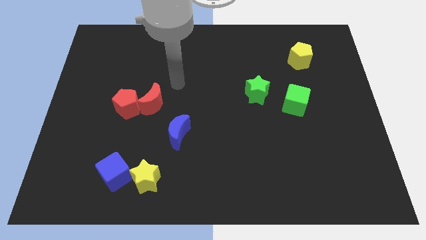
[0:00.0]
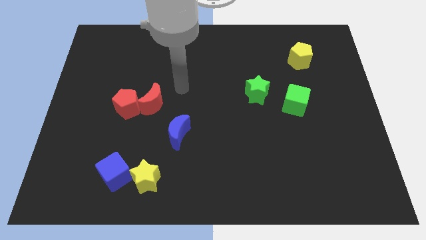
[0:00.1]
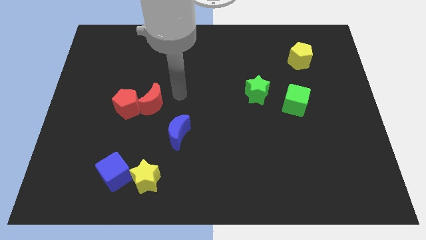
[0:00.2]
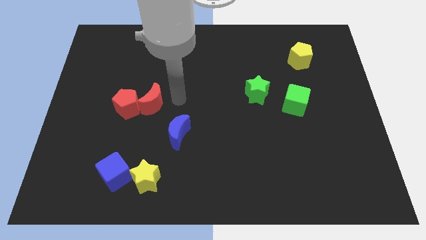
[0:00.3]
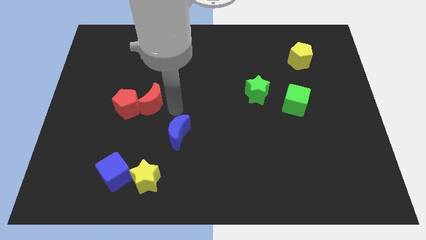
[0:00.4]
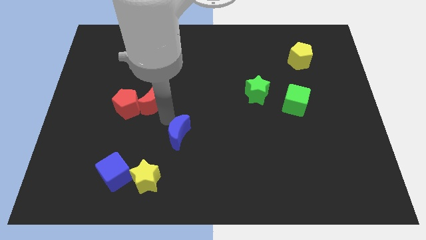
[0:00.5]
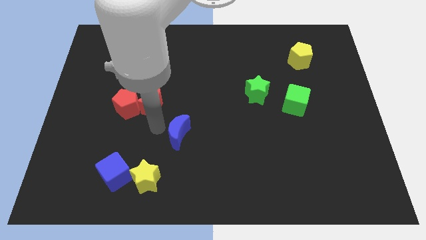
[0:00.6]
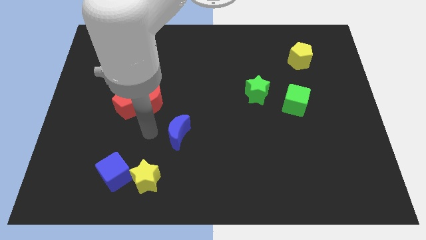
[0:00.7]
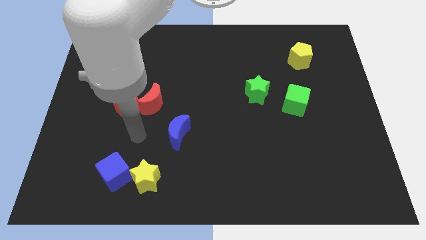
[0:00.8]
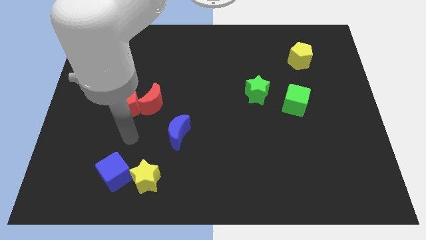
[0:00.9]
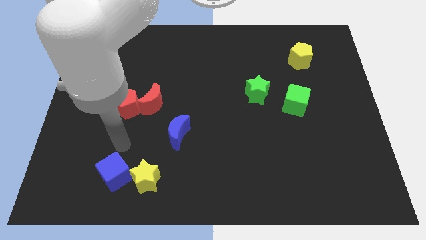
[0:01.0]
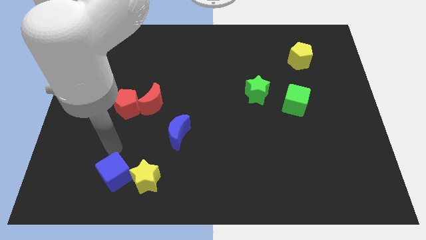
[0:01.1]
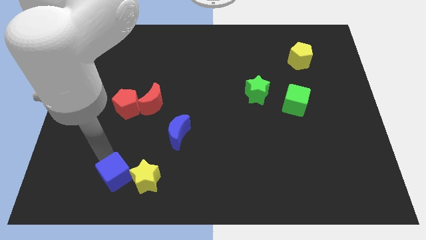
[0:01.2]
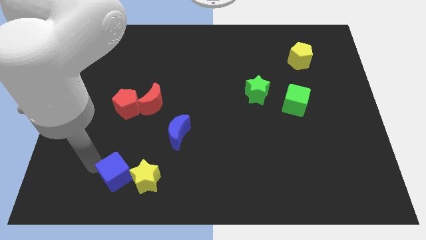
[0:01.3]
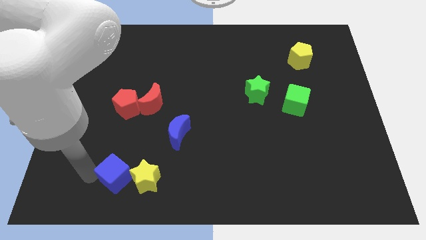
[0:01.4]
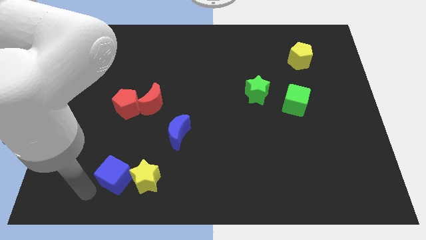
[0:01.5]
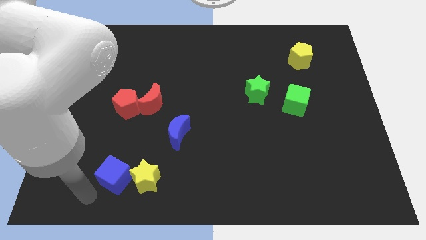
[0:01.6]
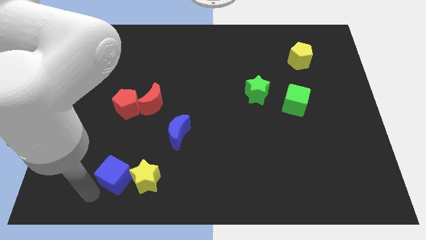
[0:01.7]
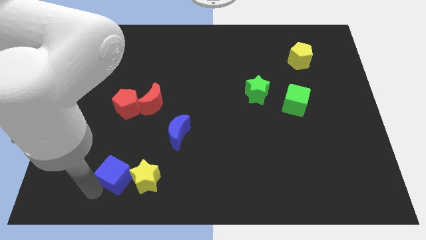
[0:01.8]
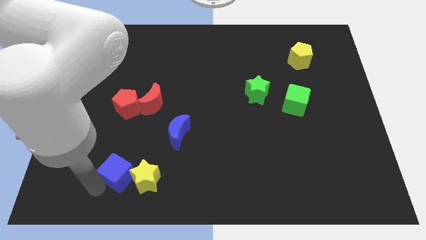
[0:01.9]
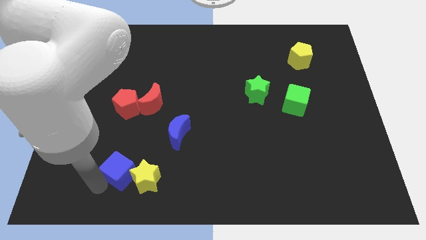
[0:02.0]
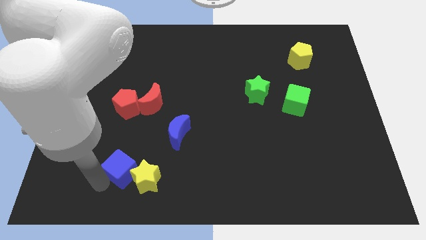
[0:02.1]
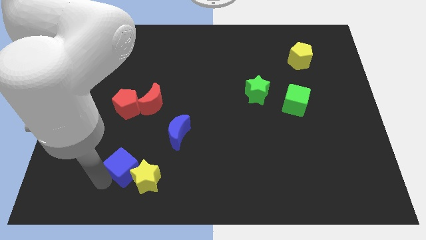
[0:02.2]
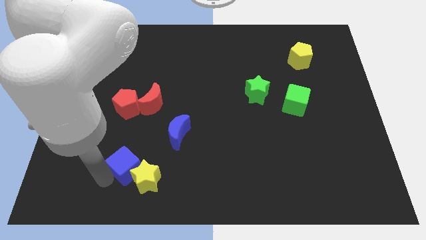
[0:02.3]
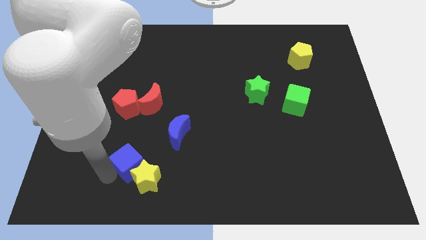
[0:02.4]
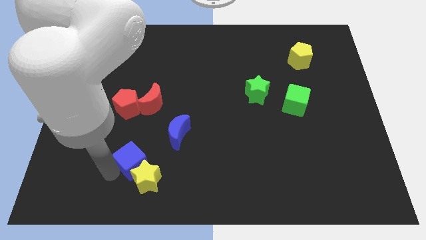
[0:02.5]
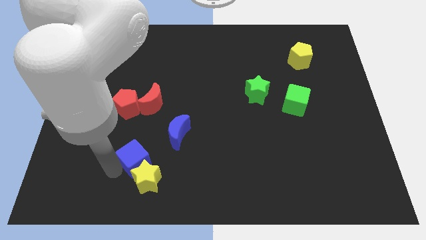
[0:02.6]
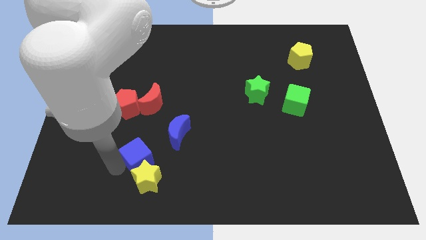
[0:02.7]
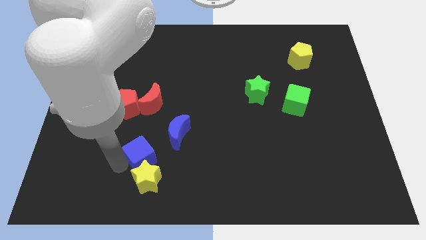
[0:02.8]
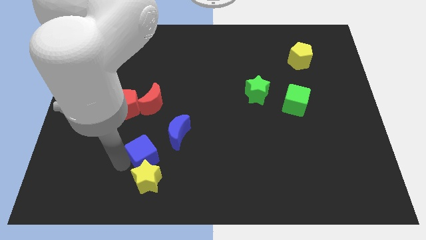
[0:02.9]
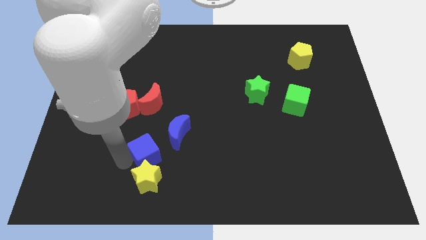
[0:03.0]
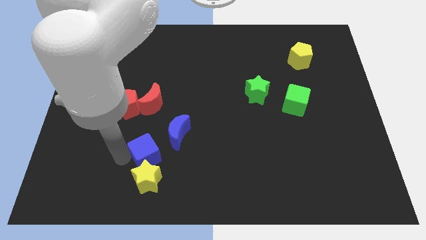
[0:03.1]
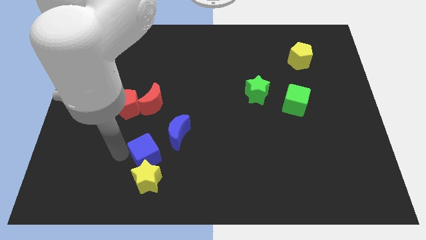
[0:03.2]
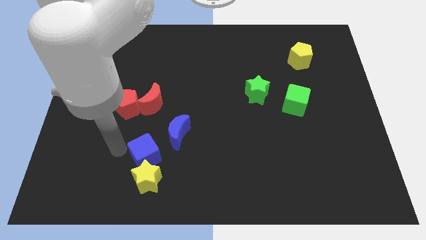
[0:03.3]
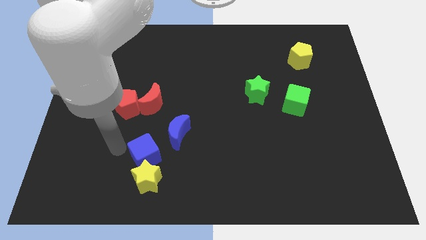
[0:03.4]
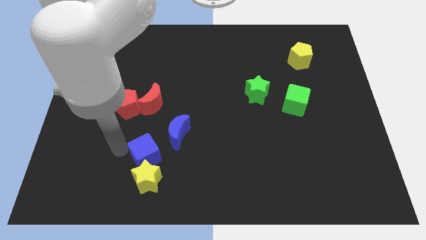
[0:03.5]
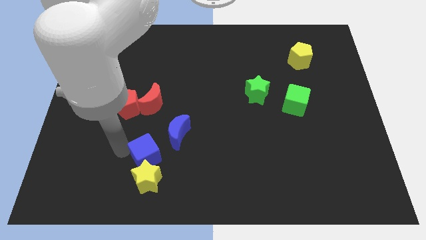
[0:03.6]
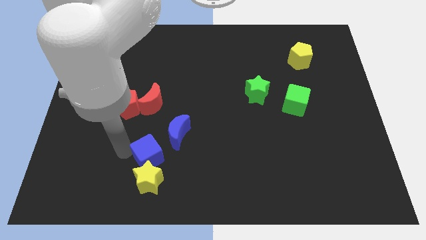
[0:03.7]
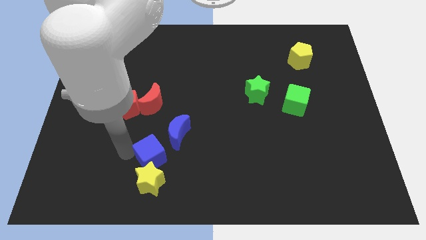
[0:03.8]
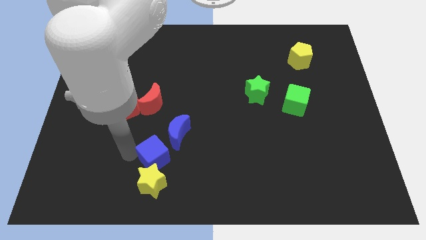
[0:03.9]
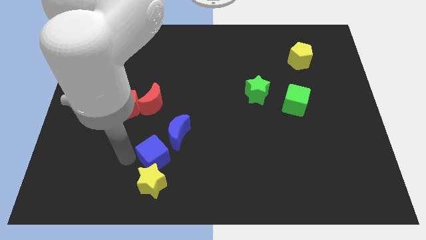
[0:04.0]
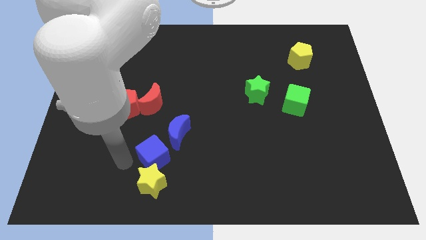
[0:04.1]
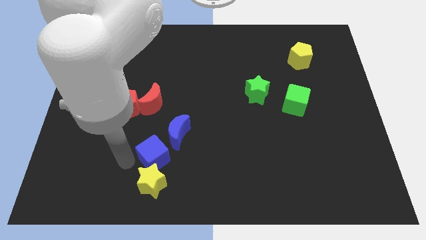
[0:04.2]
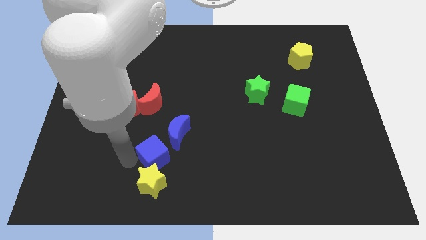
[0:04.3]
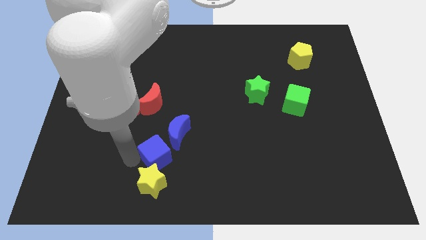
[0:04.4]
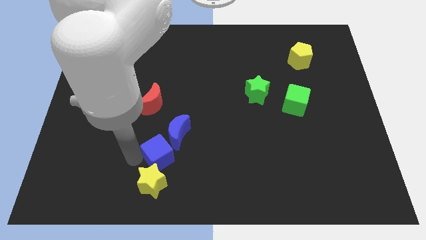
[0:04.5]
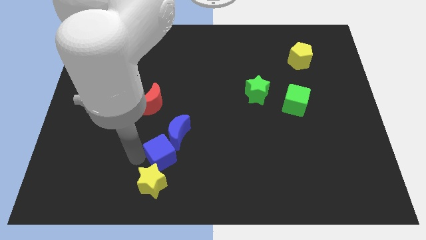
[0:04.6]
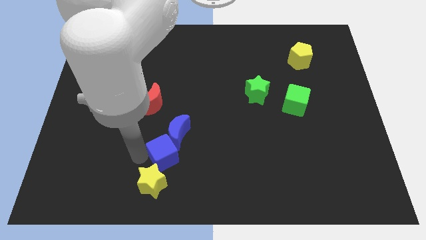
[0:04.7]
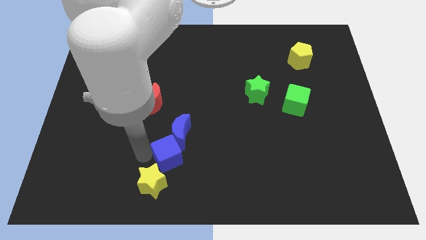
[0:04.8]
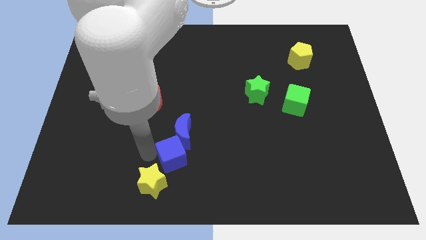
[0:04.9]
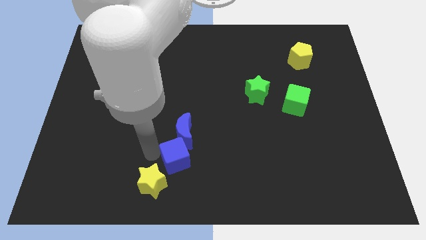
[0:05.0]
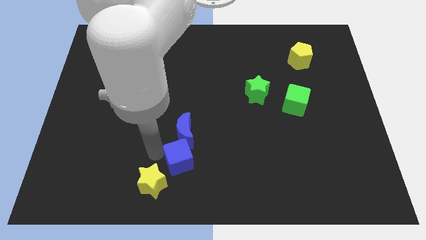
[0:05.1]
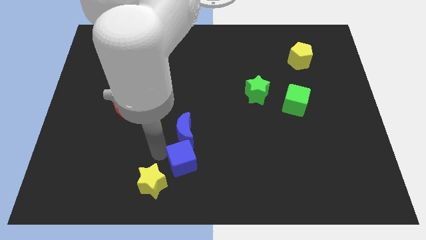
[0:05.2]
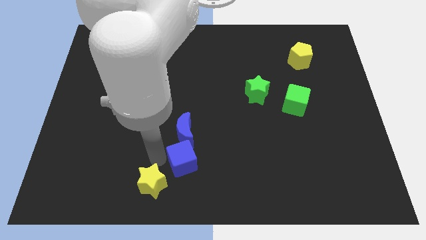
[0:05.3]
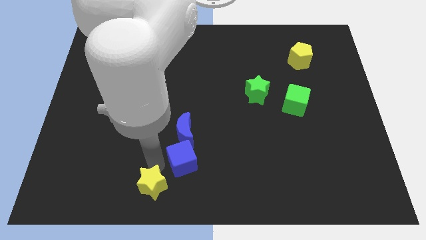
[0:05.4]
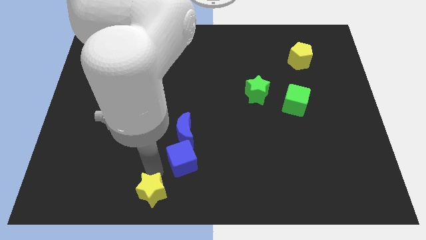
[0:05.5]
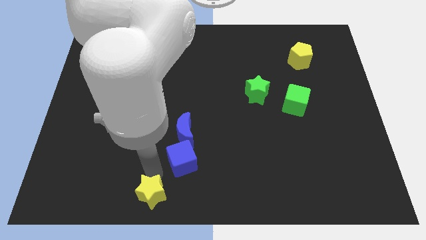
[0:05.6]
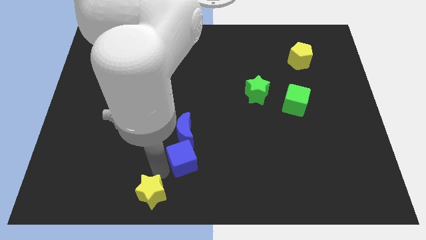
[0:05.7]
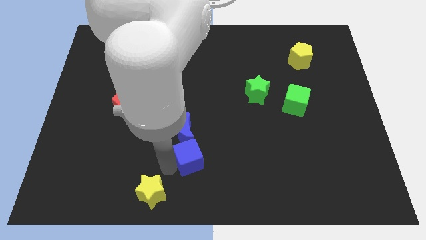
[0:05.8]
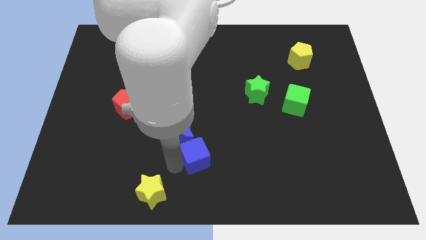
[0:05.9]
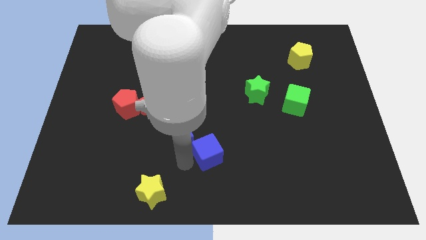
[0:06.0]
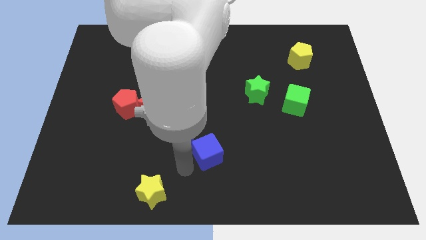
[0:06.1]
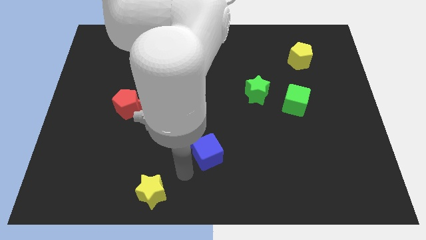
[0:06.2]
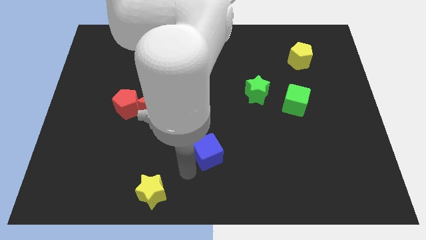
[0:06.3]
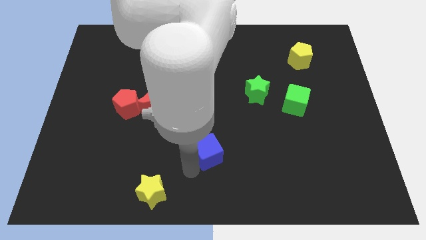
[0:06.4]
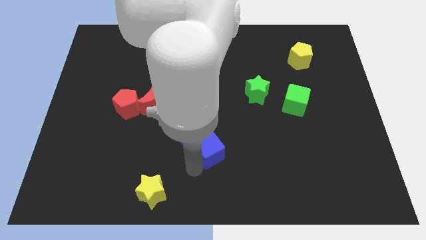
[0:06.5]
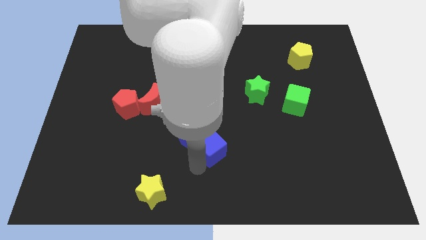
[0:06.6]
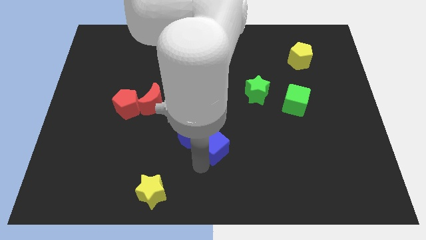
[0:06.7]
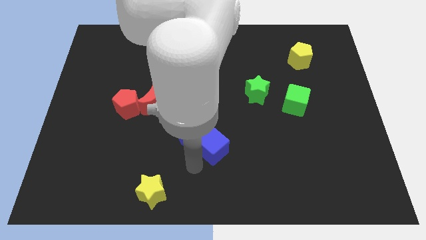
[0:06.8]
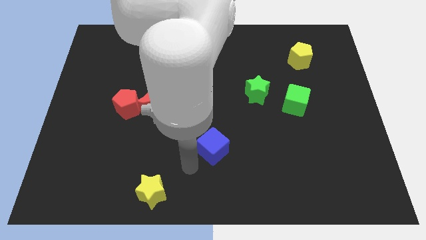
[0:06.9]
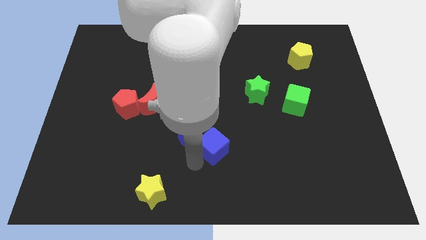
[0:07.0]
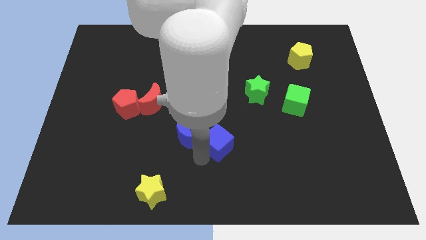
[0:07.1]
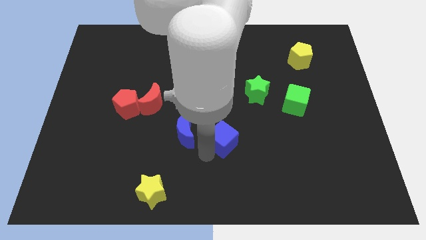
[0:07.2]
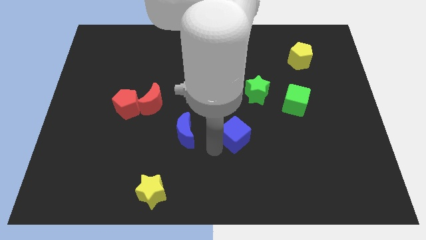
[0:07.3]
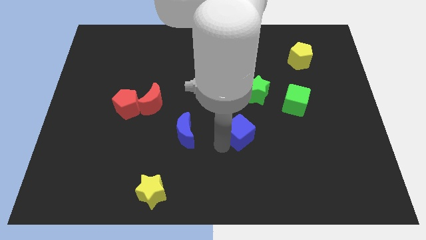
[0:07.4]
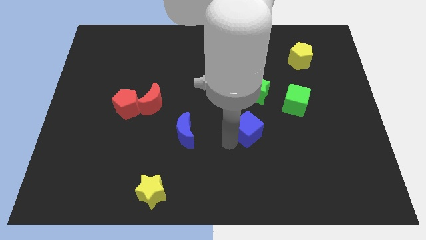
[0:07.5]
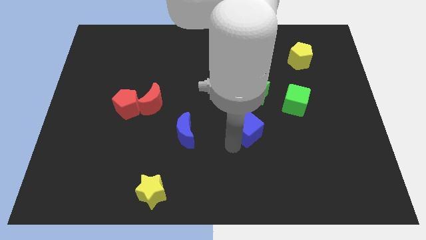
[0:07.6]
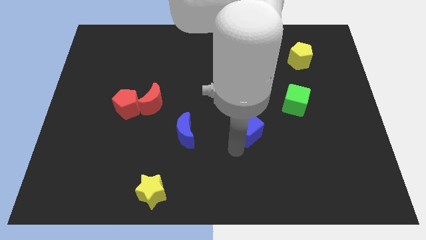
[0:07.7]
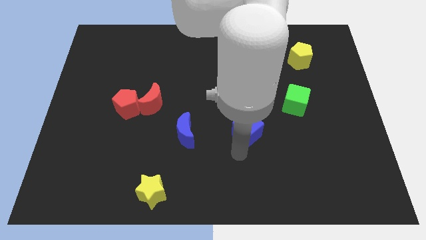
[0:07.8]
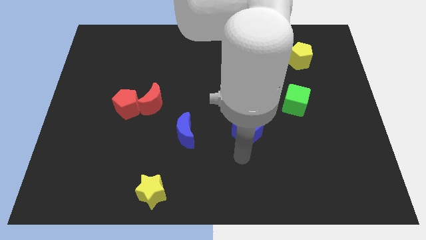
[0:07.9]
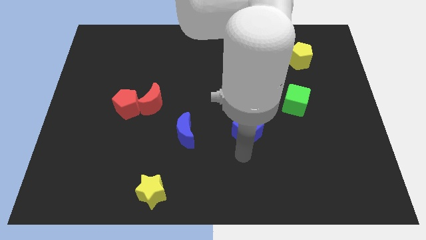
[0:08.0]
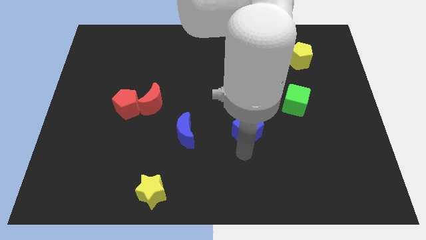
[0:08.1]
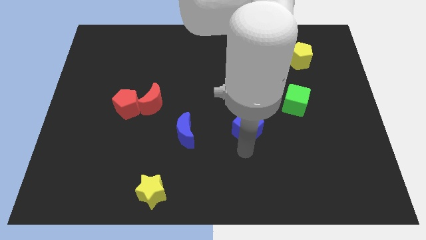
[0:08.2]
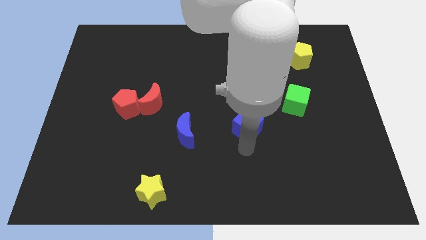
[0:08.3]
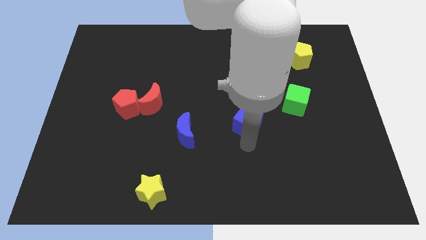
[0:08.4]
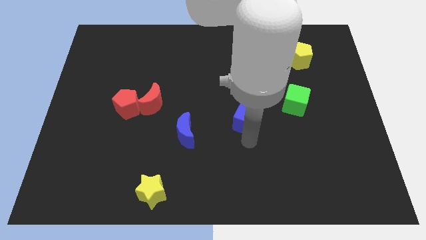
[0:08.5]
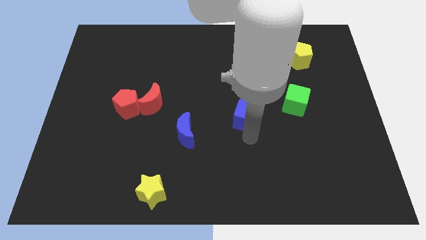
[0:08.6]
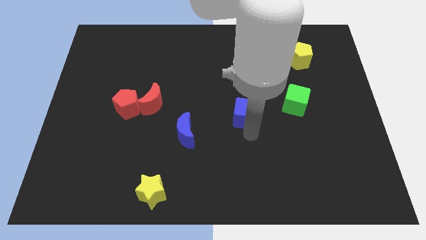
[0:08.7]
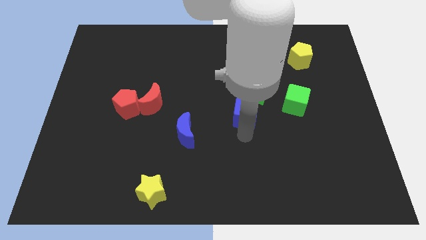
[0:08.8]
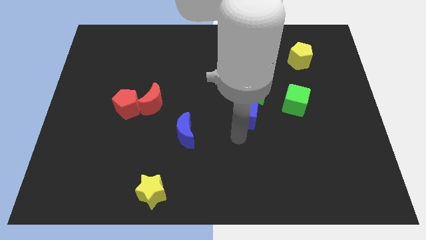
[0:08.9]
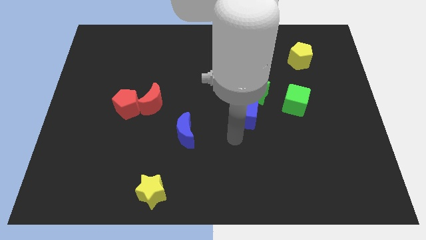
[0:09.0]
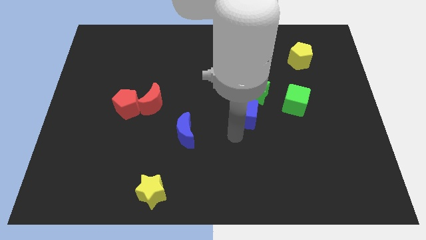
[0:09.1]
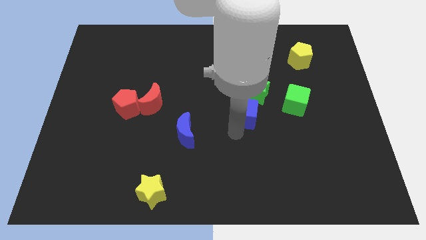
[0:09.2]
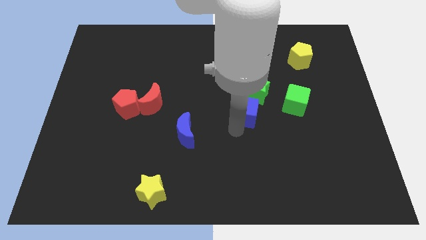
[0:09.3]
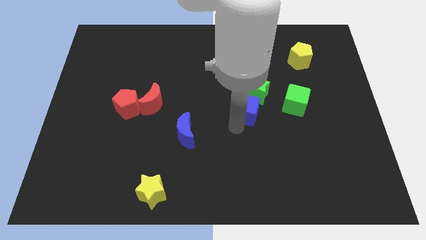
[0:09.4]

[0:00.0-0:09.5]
slide the blue cube towards the green star
